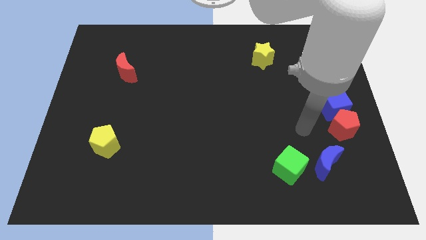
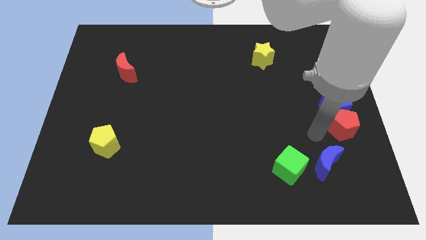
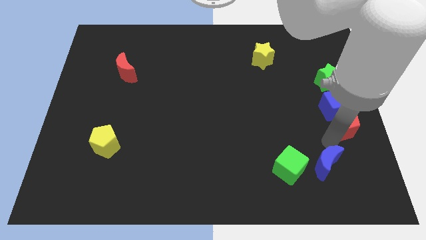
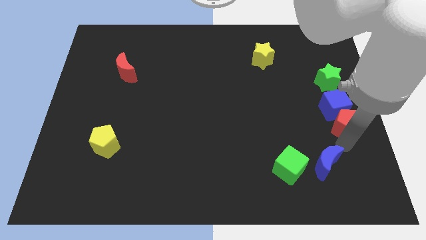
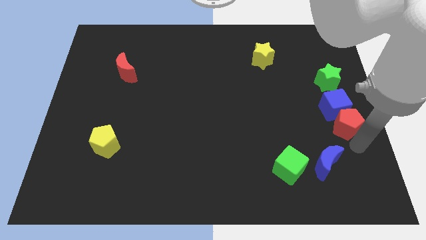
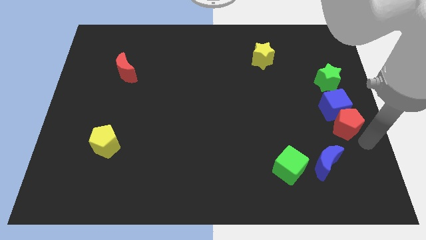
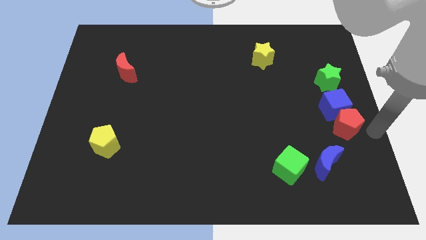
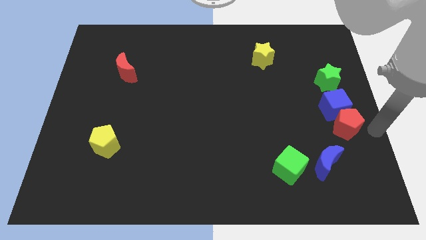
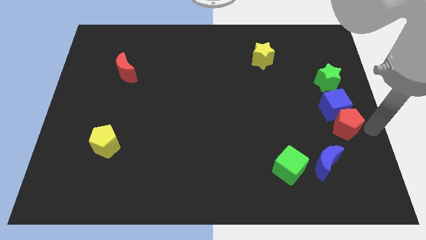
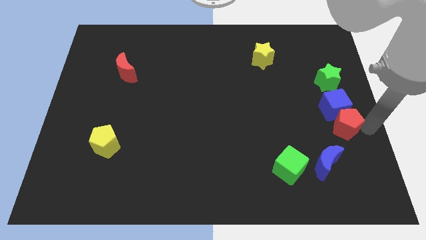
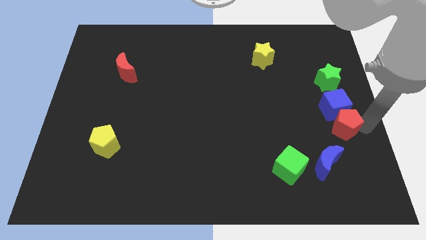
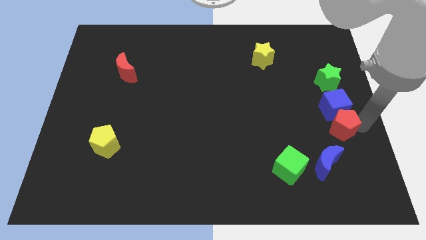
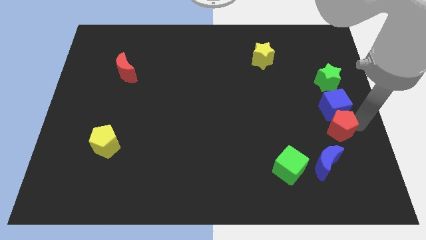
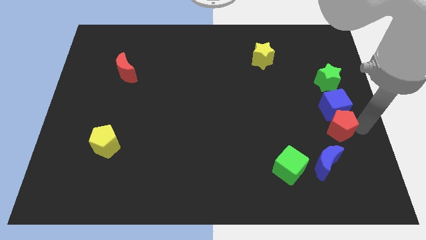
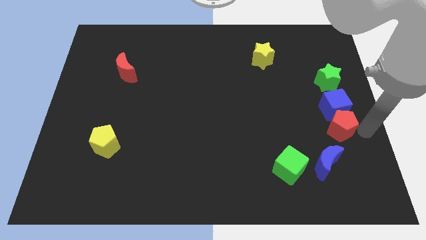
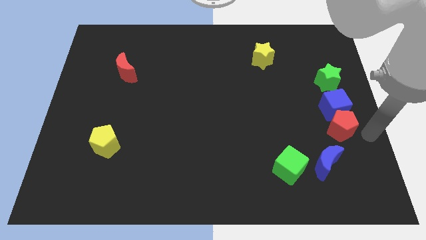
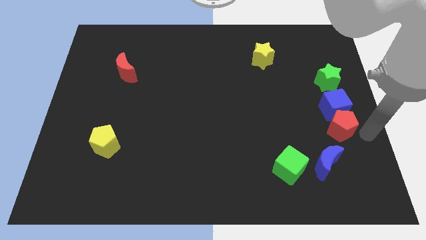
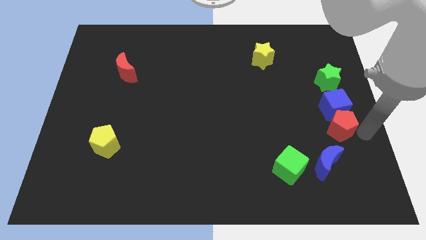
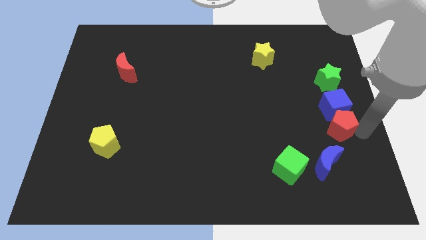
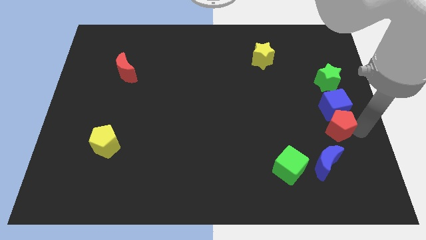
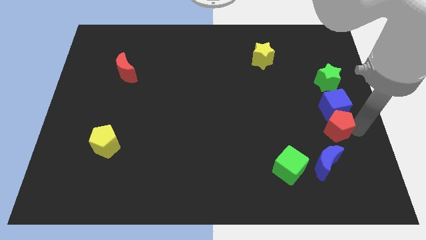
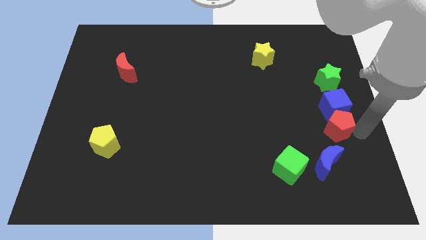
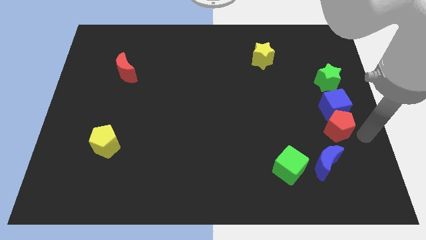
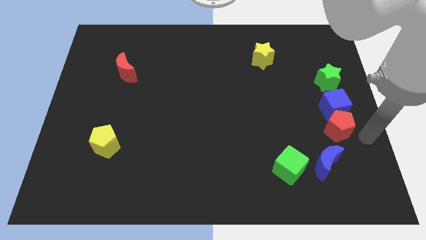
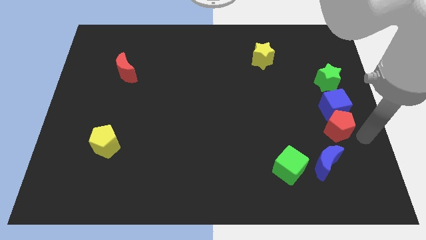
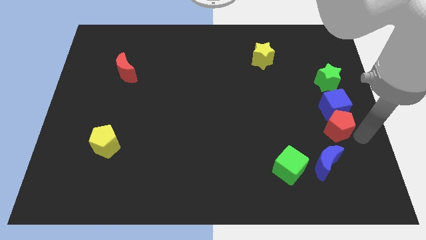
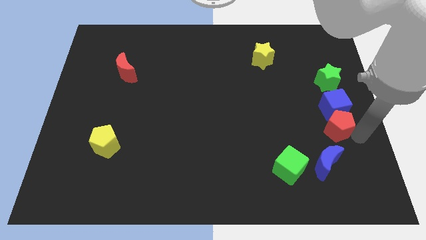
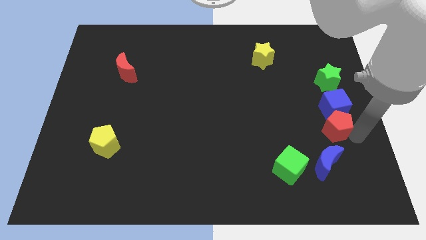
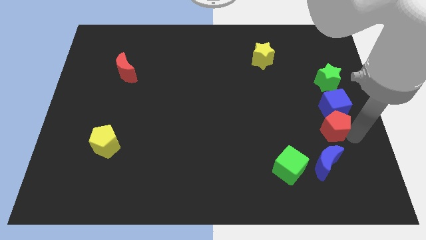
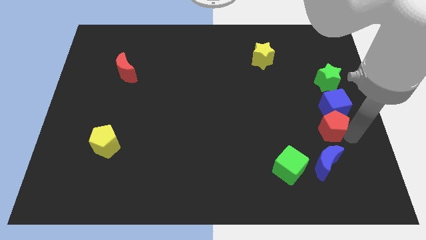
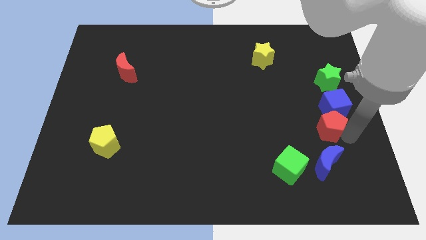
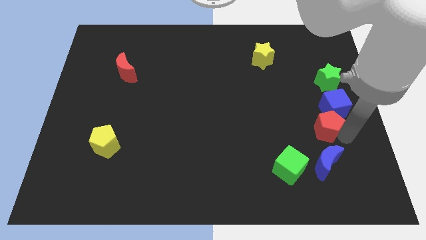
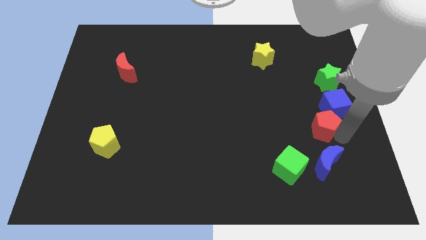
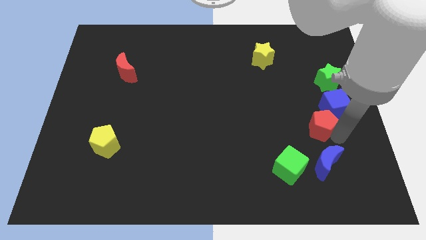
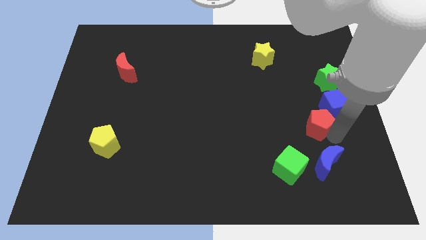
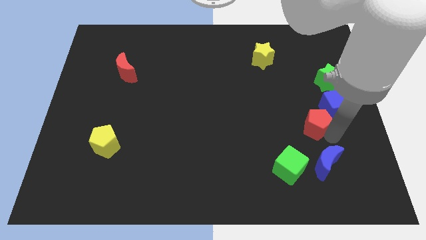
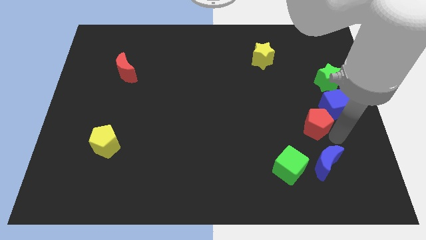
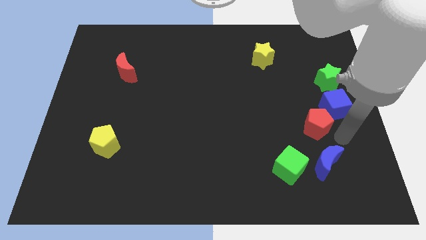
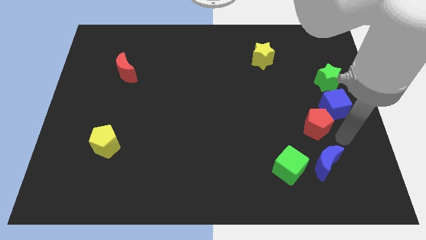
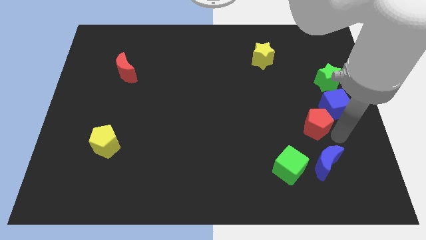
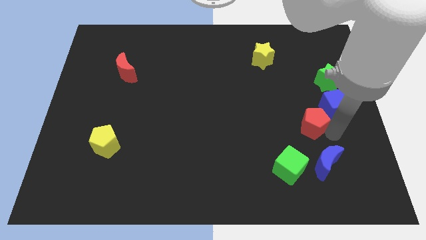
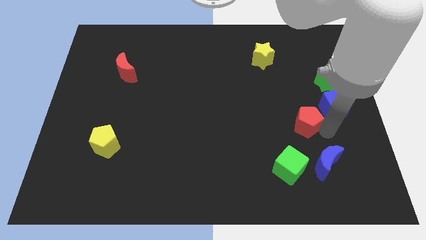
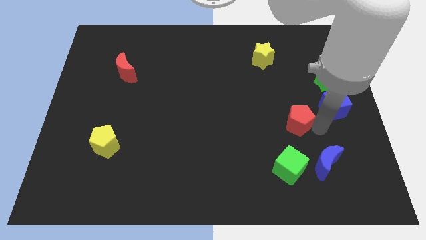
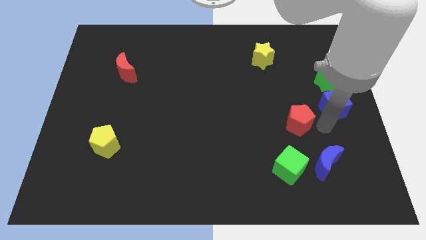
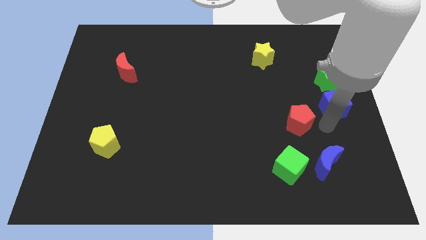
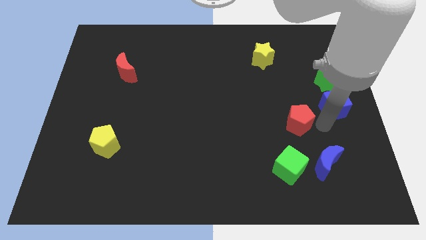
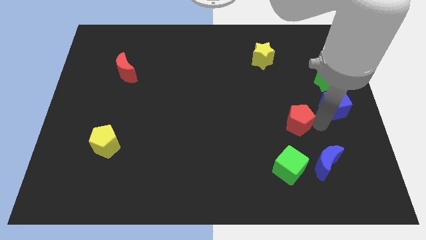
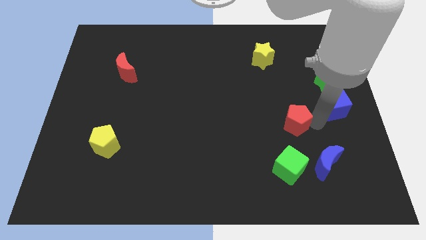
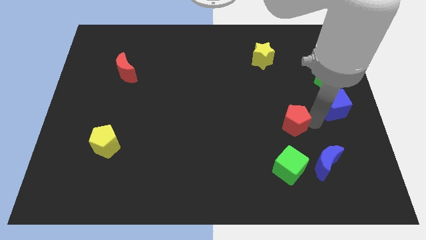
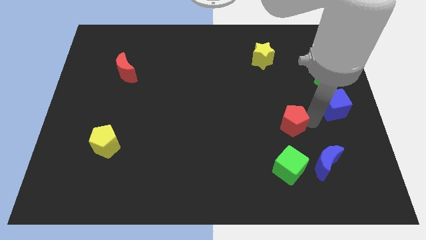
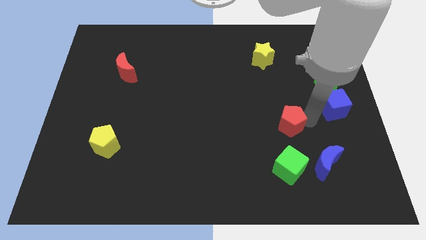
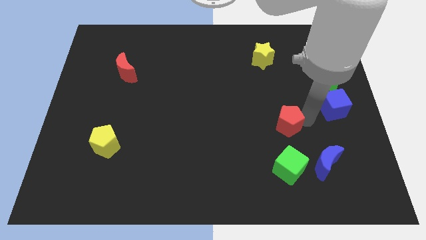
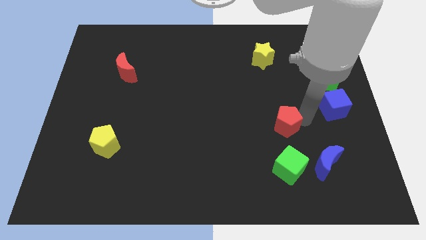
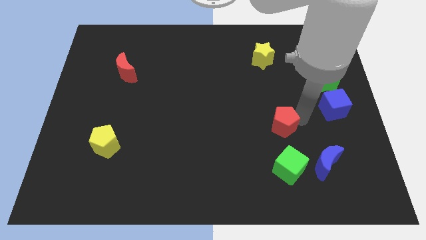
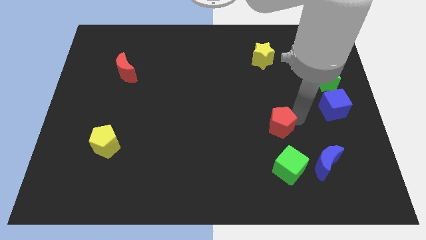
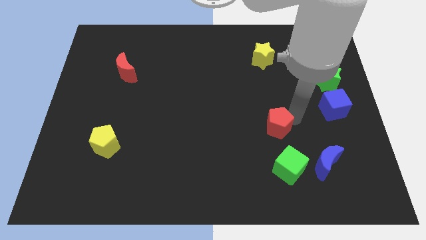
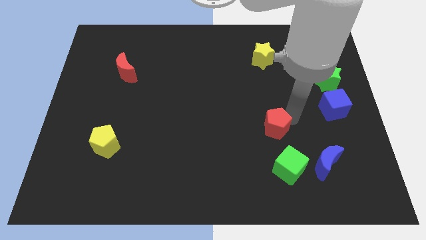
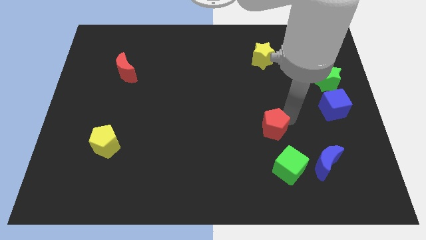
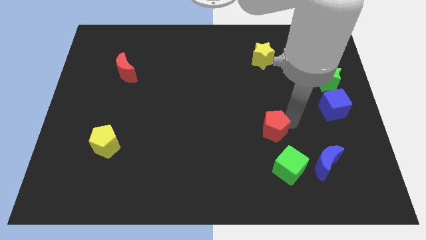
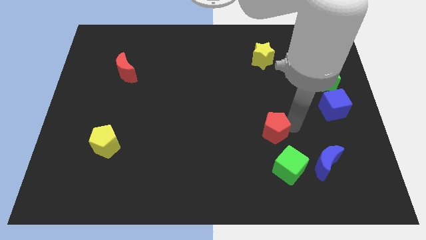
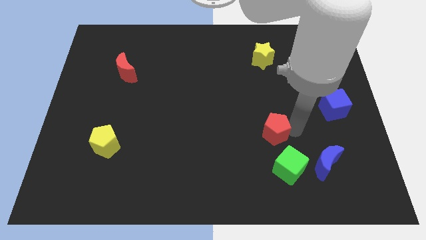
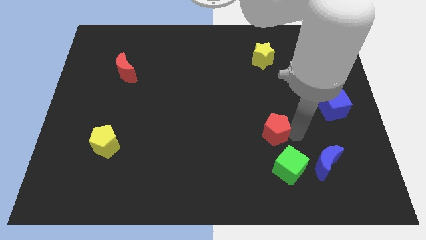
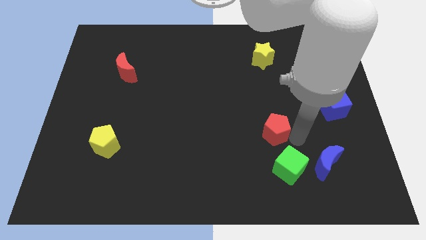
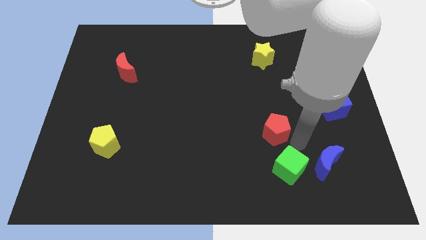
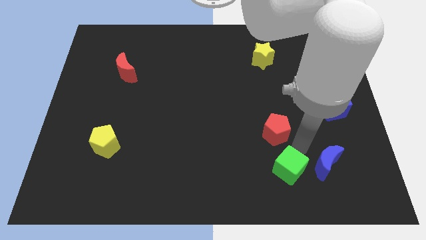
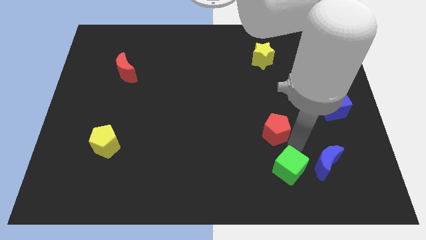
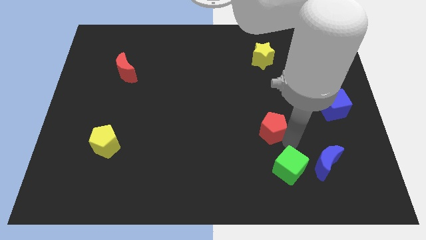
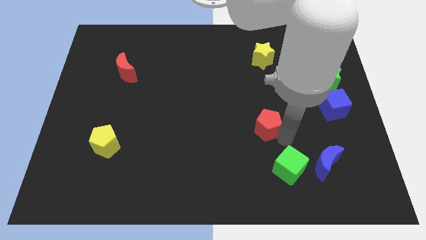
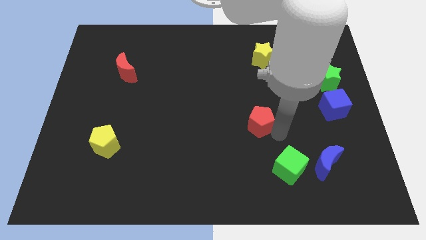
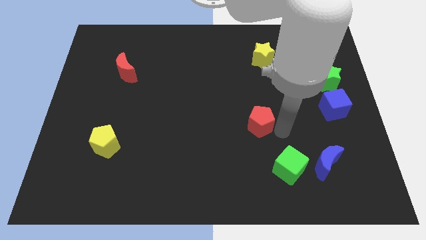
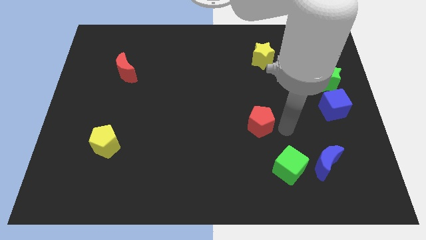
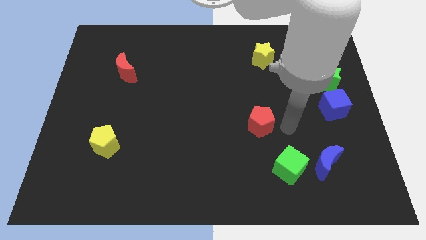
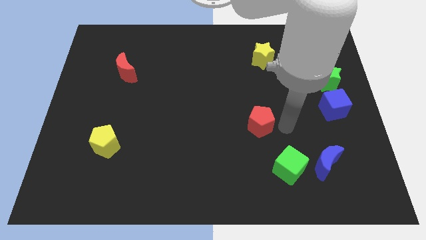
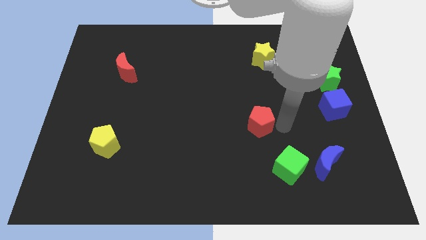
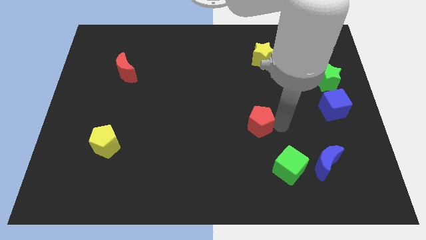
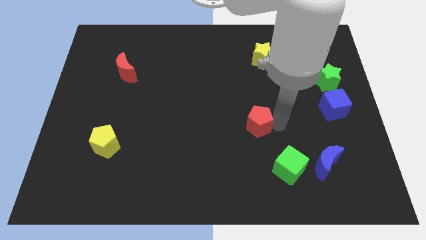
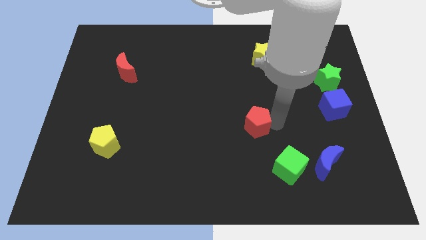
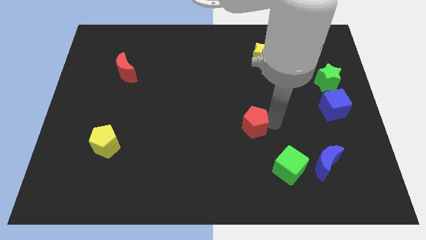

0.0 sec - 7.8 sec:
slide the red pentagon to the left

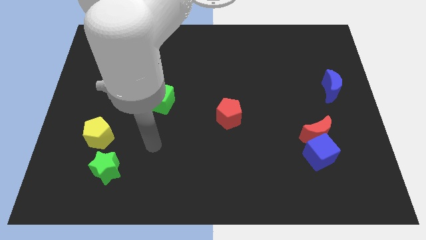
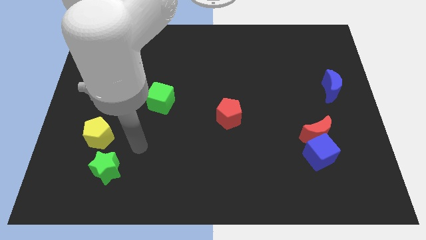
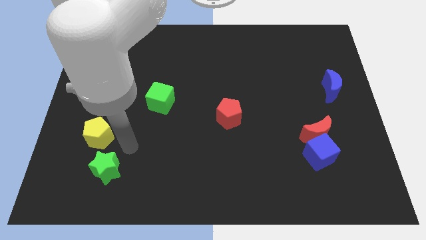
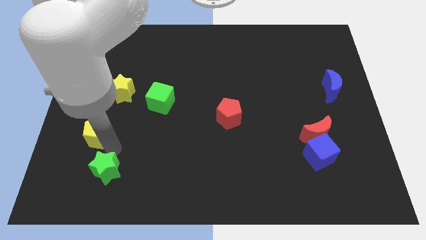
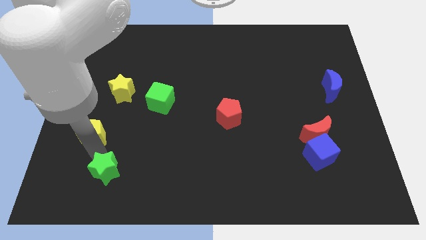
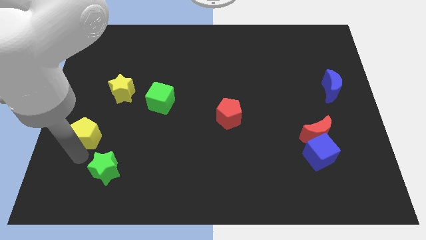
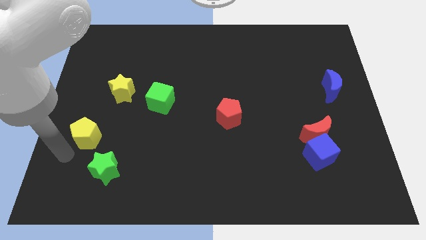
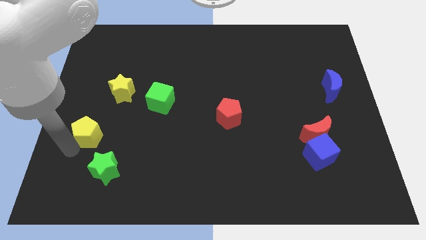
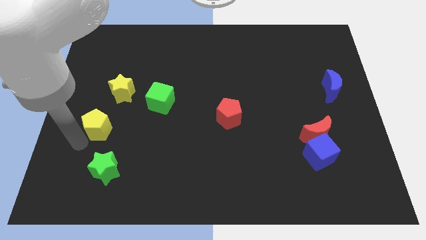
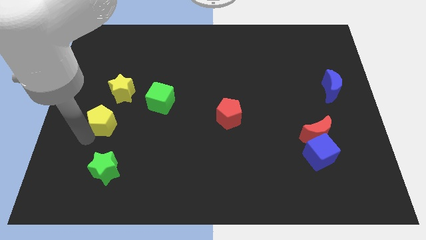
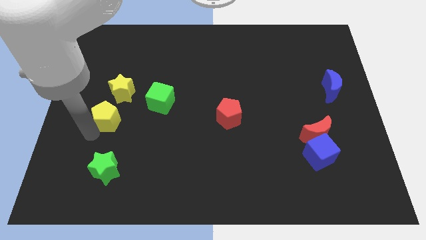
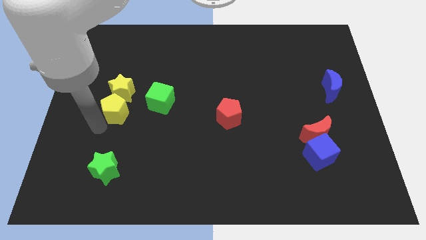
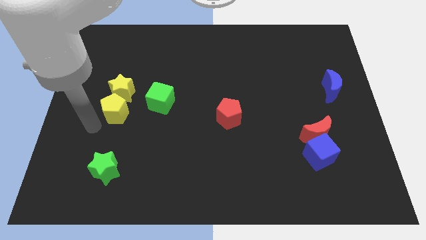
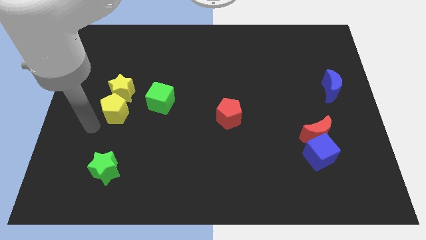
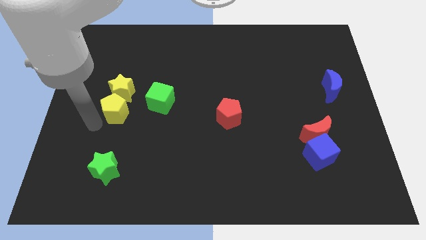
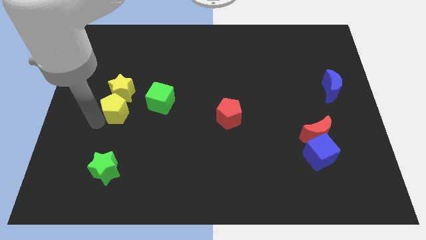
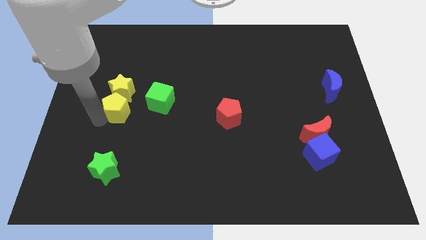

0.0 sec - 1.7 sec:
slide the yellow pentagon upwards and right diagonally somewhat
